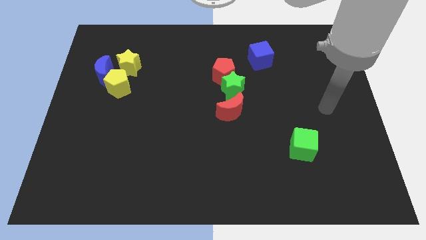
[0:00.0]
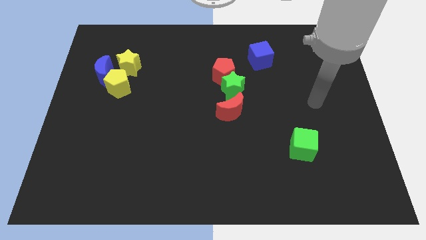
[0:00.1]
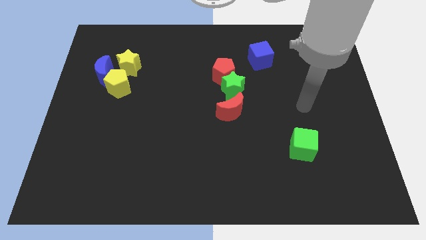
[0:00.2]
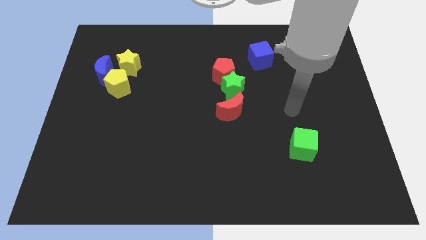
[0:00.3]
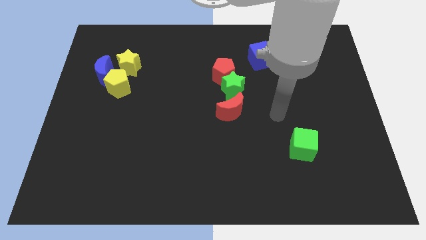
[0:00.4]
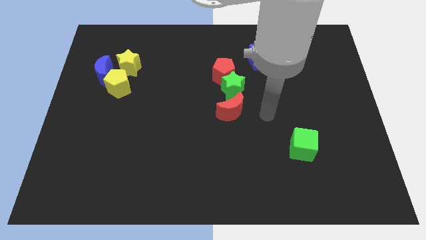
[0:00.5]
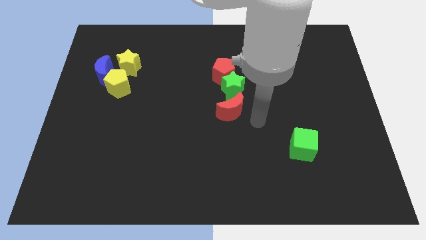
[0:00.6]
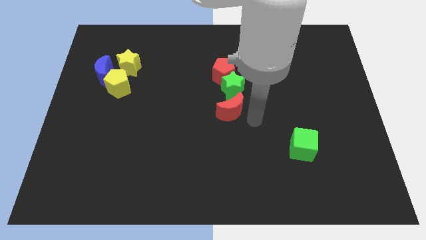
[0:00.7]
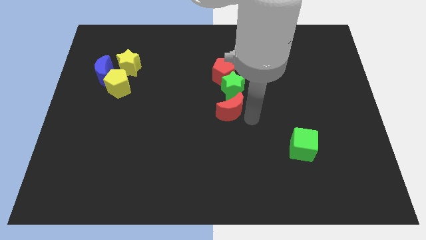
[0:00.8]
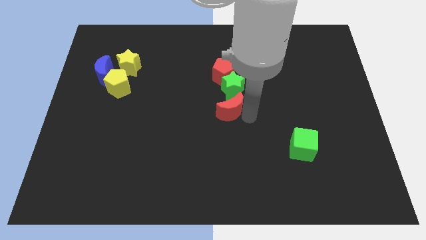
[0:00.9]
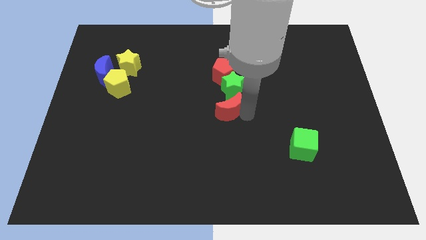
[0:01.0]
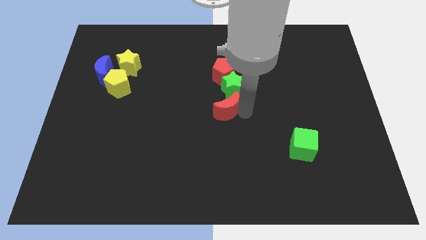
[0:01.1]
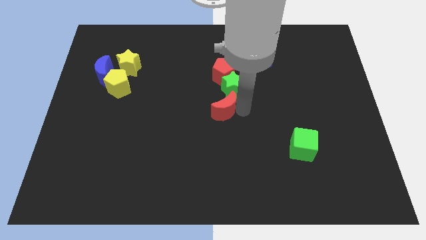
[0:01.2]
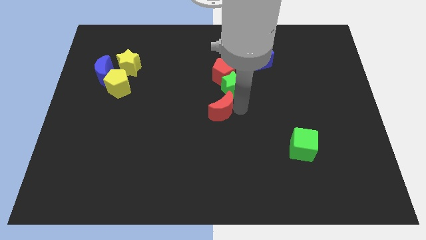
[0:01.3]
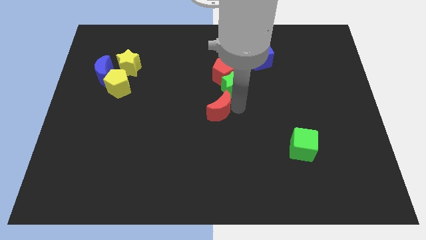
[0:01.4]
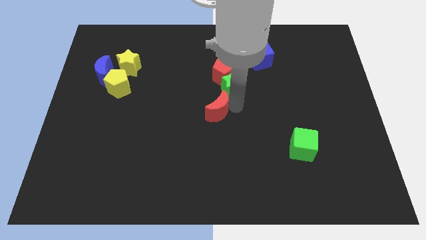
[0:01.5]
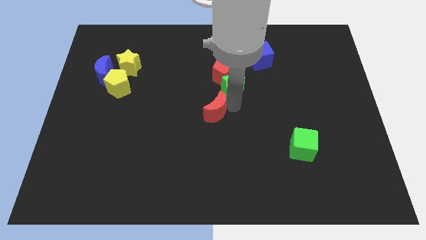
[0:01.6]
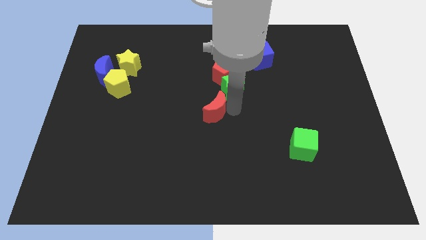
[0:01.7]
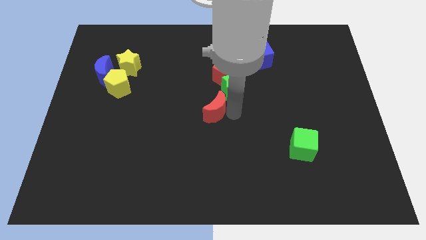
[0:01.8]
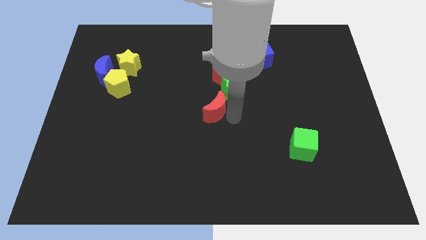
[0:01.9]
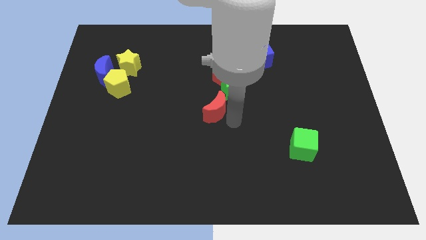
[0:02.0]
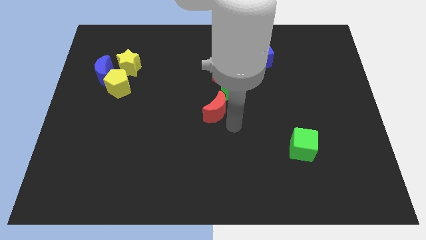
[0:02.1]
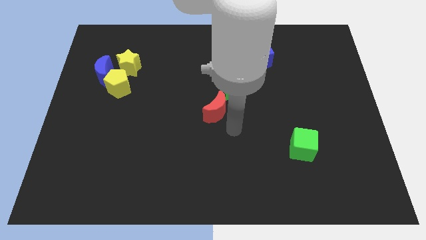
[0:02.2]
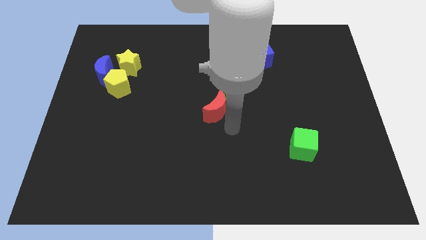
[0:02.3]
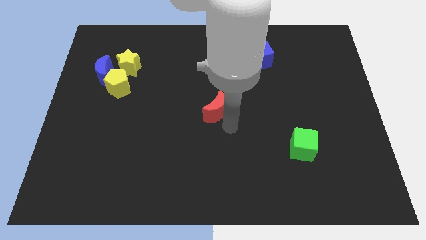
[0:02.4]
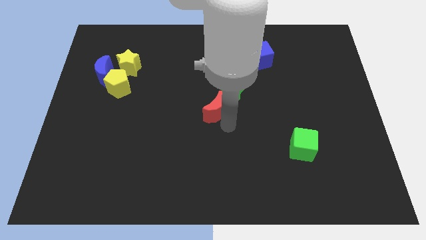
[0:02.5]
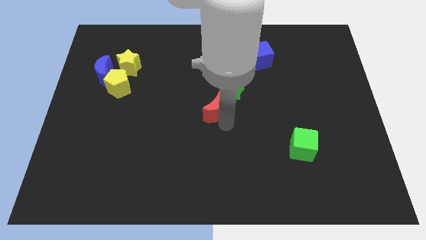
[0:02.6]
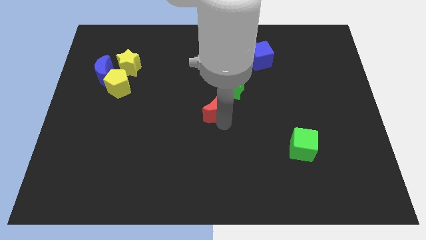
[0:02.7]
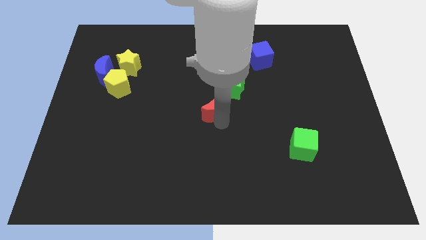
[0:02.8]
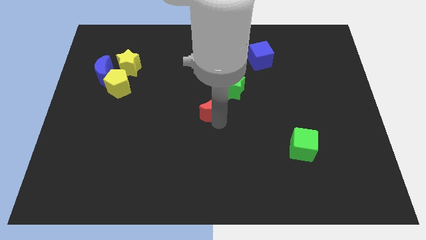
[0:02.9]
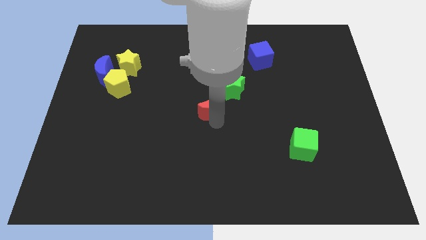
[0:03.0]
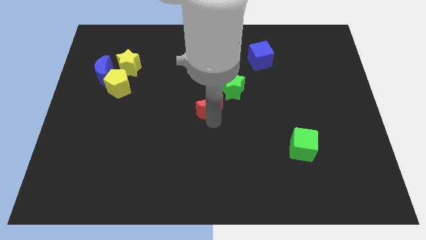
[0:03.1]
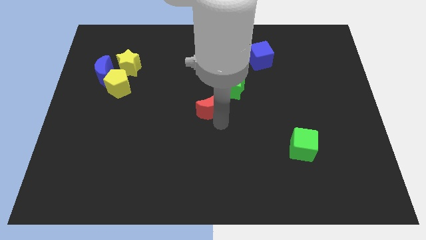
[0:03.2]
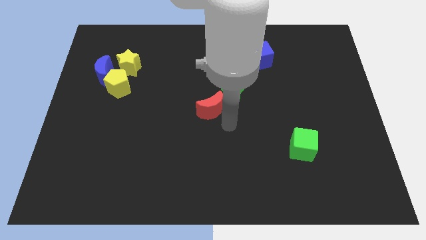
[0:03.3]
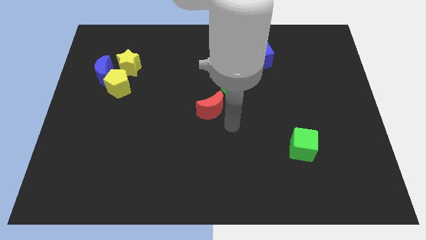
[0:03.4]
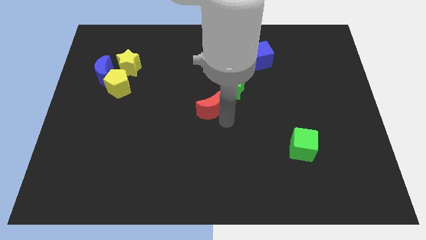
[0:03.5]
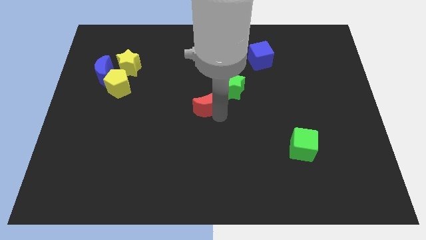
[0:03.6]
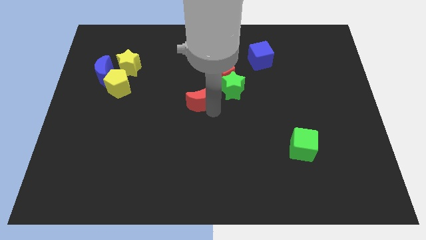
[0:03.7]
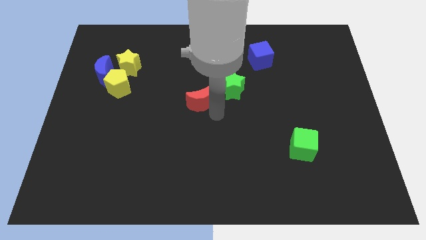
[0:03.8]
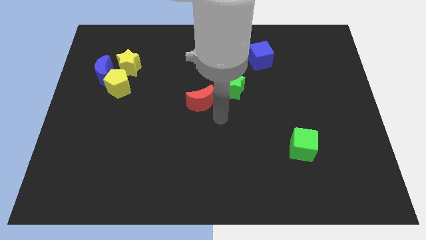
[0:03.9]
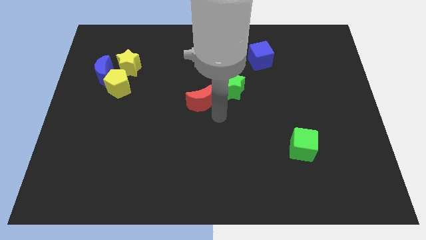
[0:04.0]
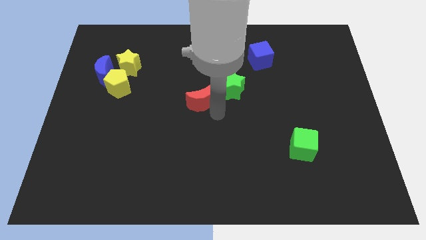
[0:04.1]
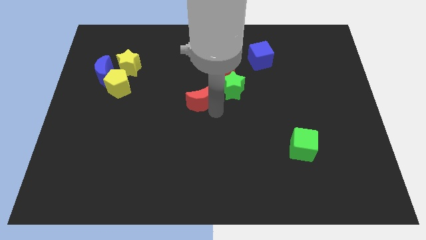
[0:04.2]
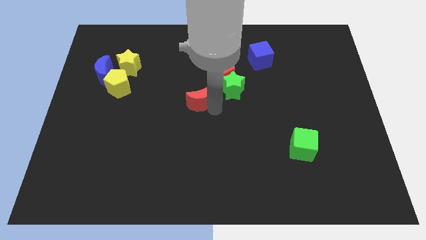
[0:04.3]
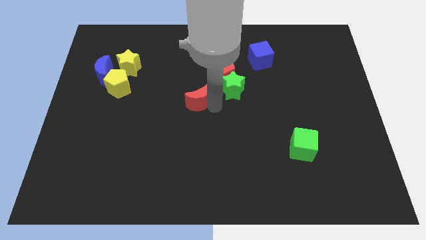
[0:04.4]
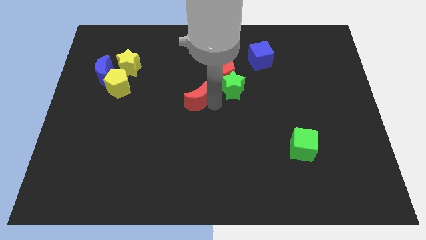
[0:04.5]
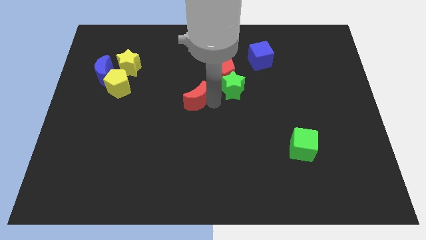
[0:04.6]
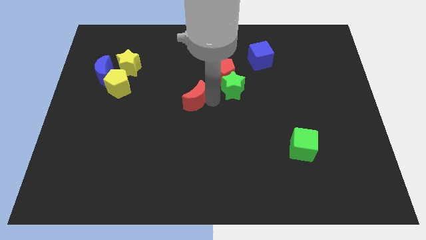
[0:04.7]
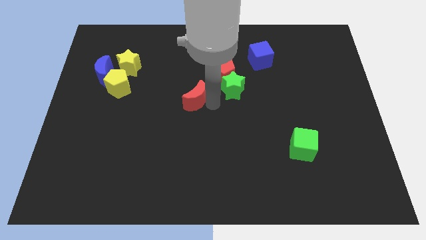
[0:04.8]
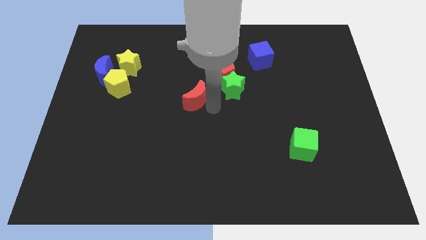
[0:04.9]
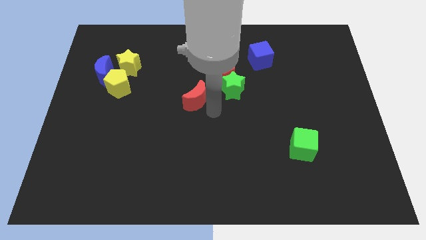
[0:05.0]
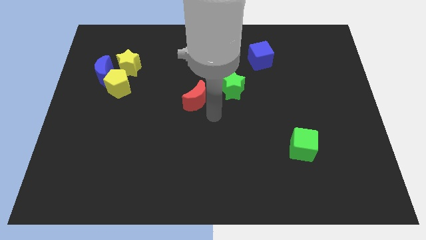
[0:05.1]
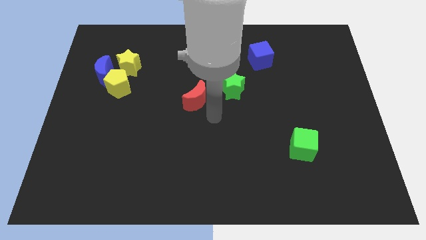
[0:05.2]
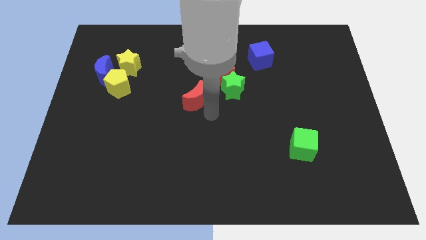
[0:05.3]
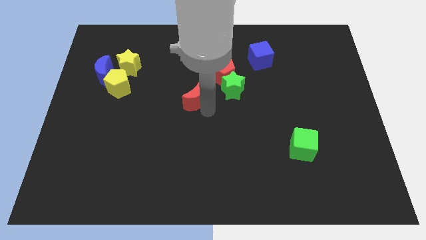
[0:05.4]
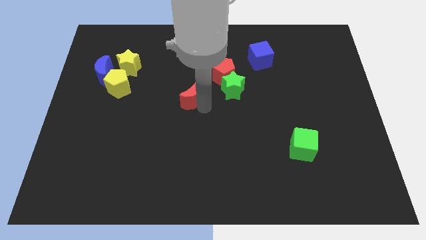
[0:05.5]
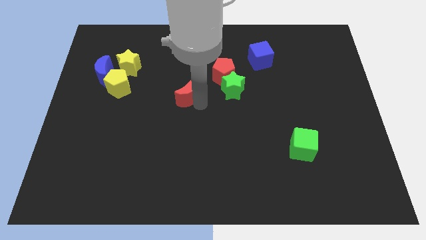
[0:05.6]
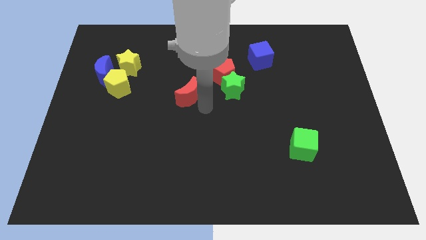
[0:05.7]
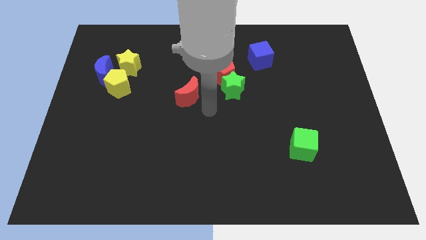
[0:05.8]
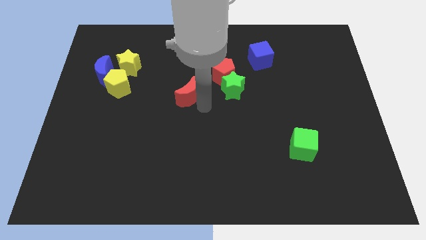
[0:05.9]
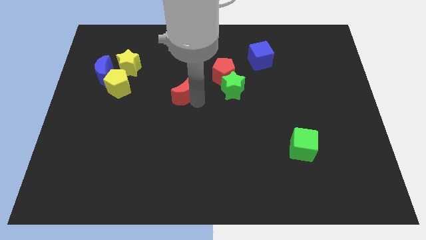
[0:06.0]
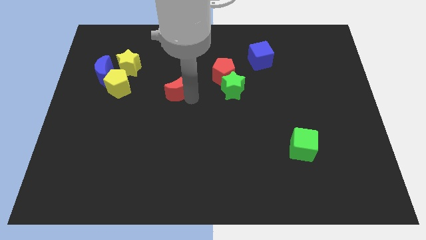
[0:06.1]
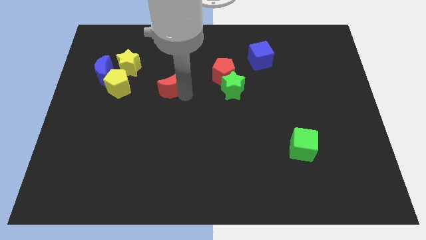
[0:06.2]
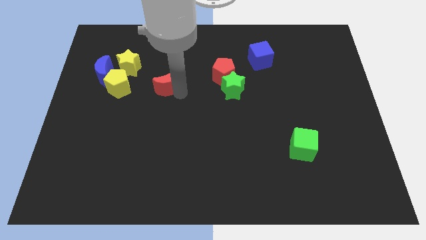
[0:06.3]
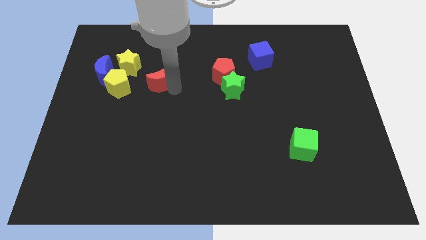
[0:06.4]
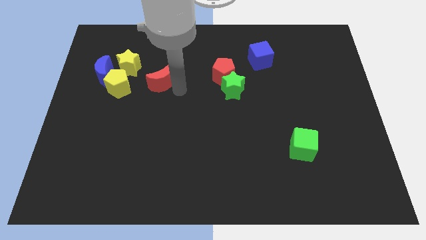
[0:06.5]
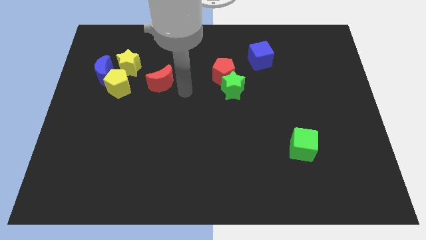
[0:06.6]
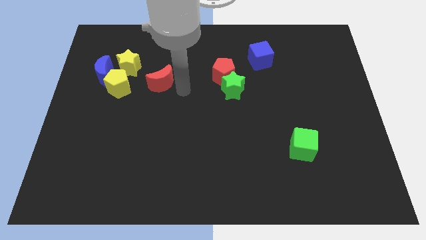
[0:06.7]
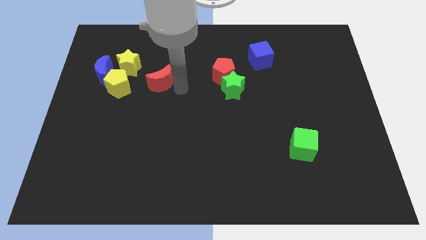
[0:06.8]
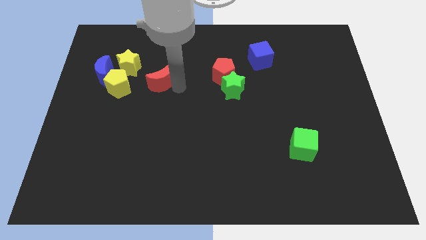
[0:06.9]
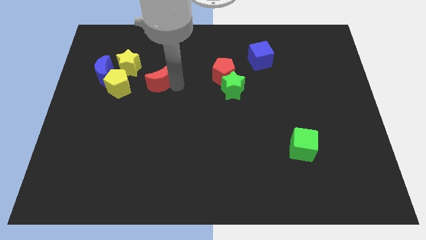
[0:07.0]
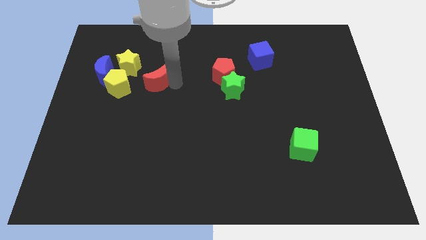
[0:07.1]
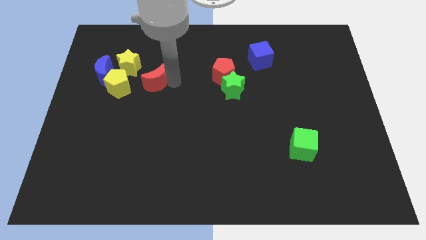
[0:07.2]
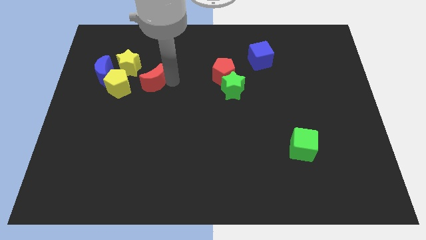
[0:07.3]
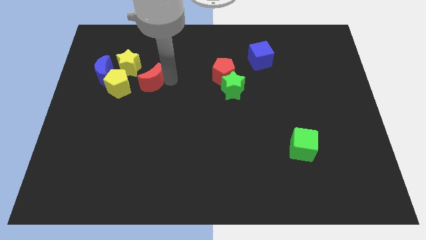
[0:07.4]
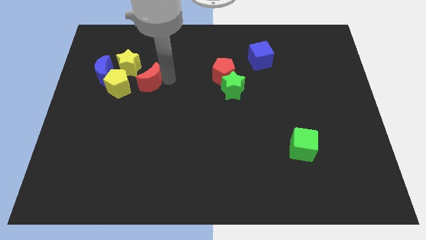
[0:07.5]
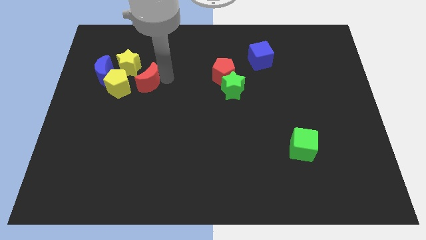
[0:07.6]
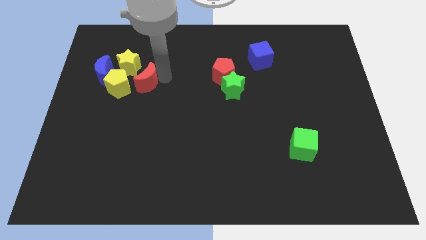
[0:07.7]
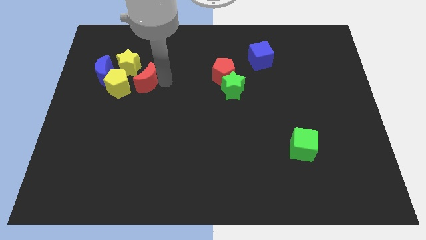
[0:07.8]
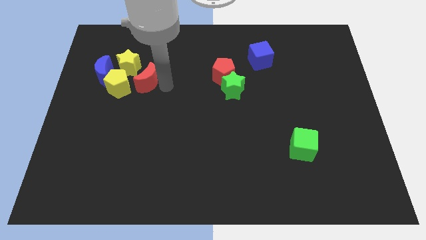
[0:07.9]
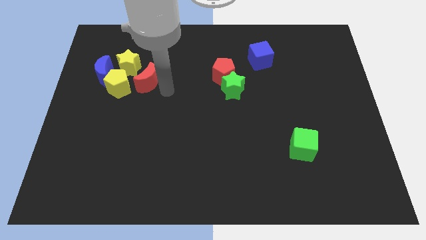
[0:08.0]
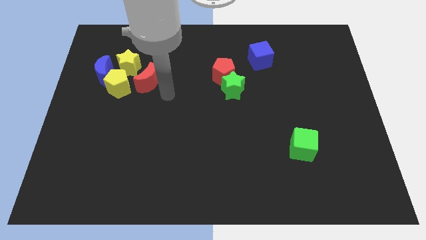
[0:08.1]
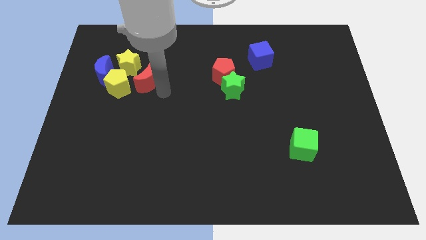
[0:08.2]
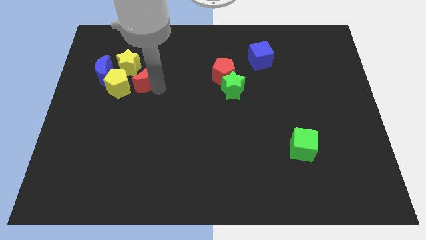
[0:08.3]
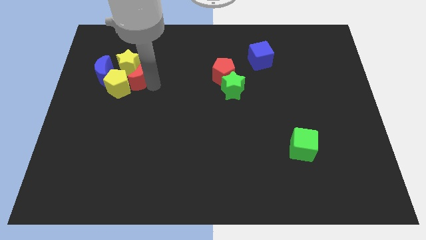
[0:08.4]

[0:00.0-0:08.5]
push the red moon next to the yellow star
